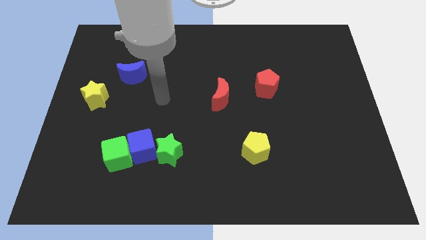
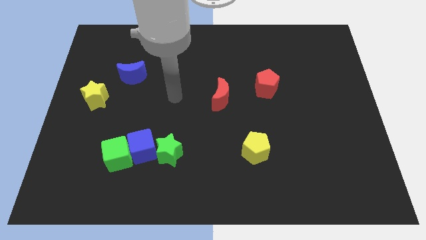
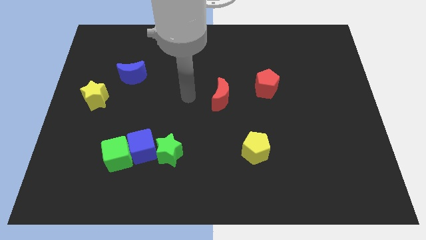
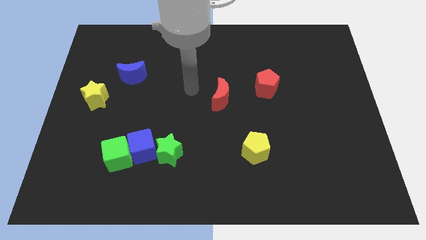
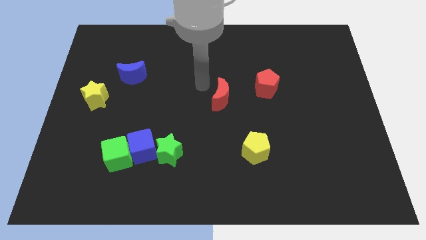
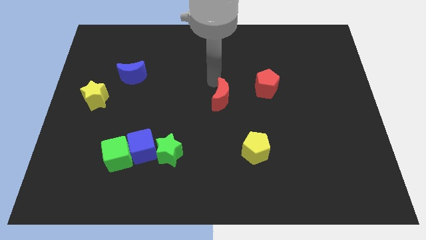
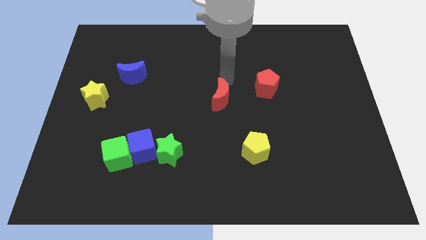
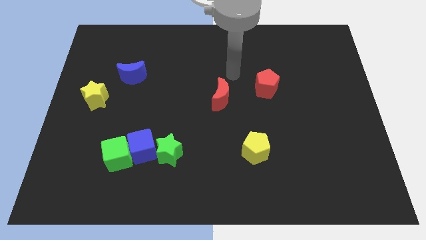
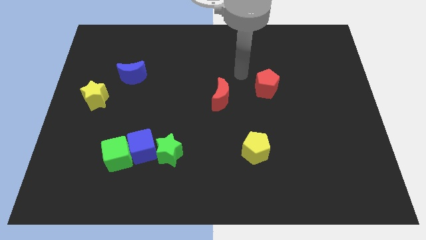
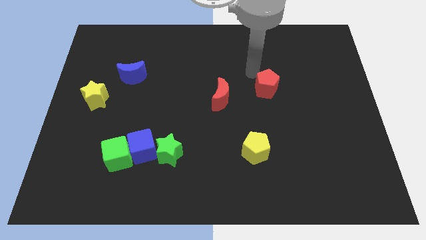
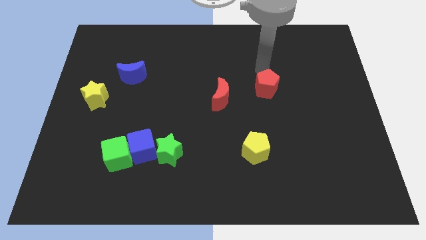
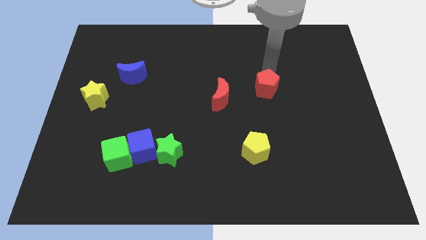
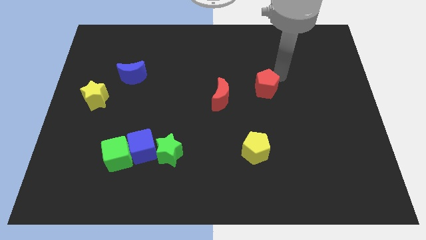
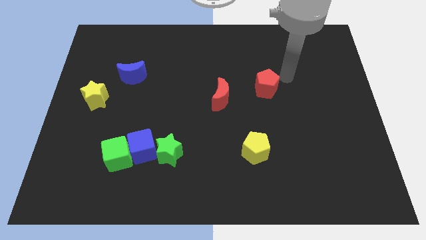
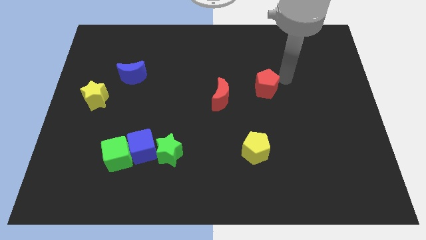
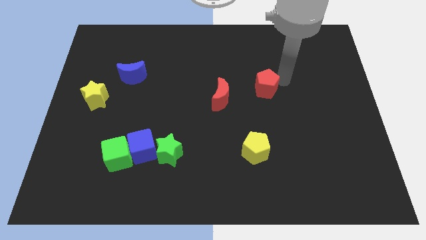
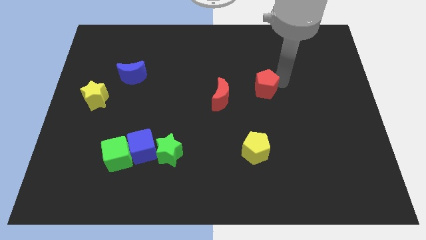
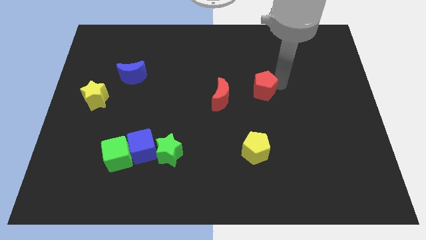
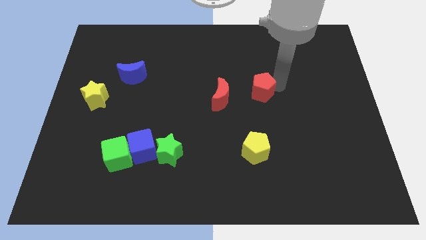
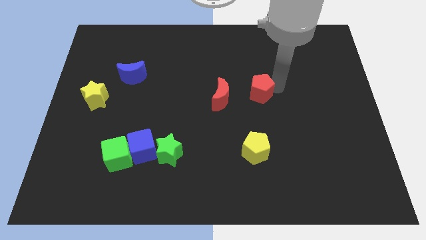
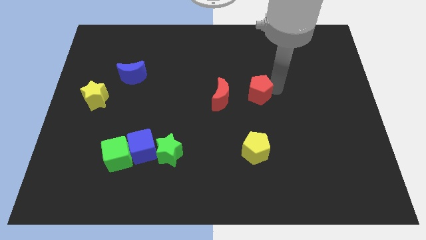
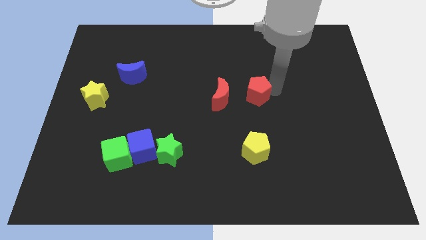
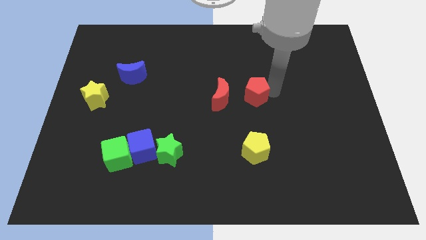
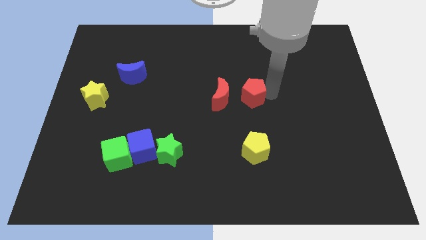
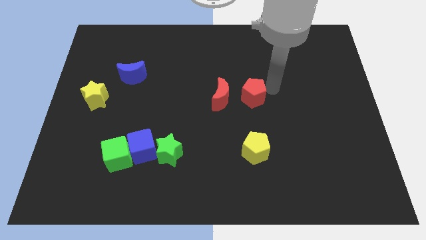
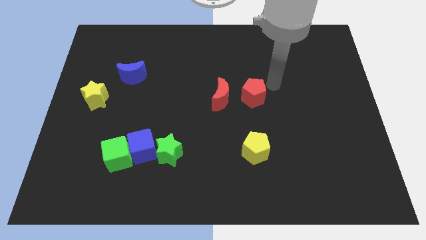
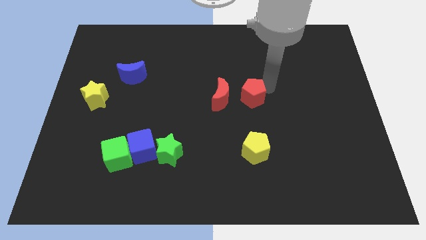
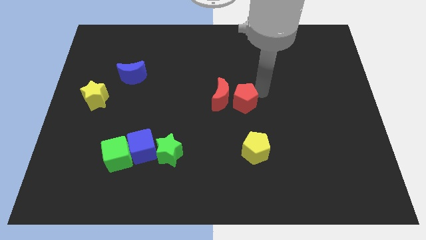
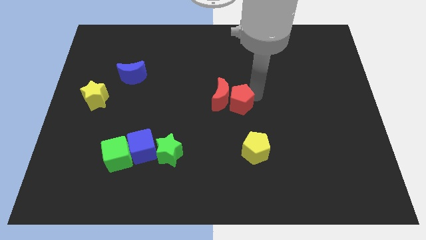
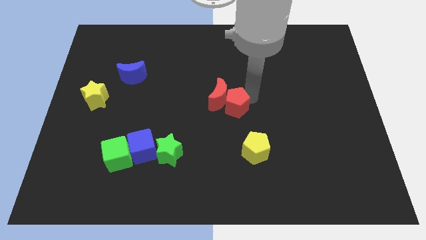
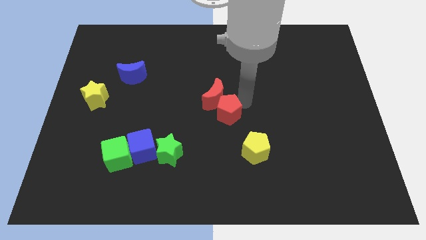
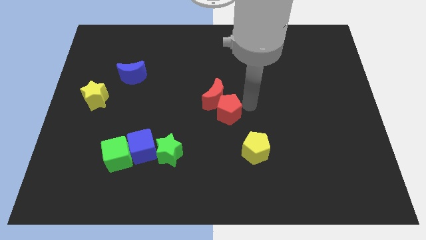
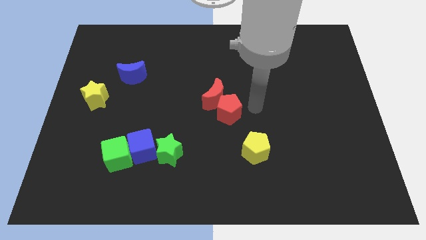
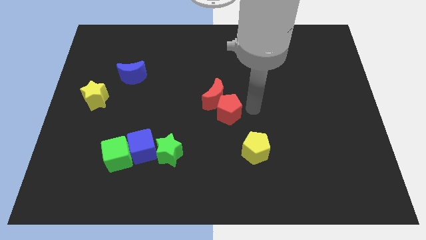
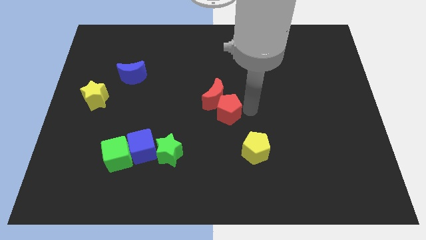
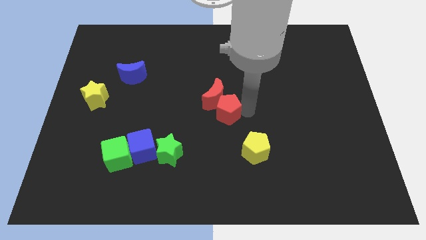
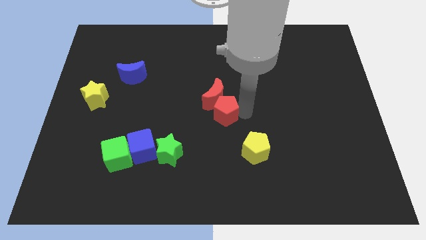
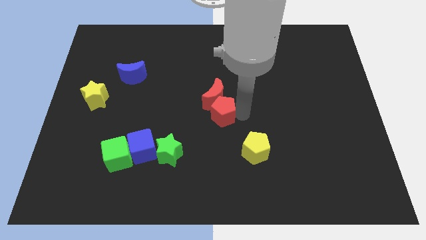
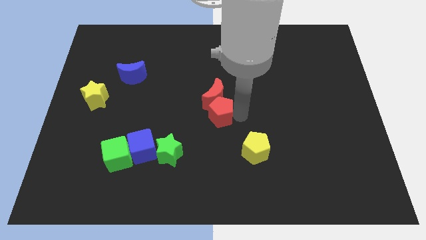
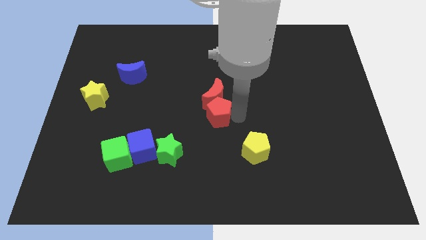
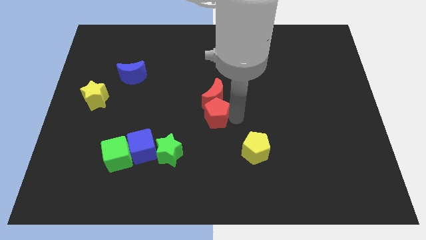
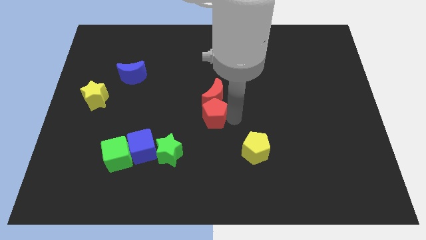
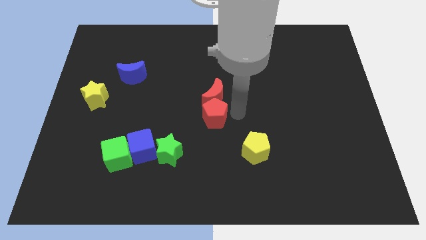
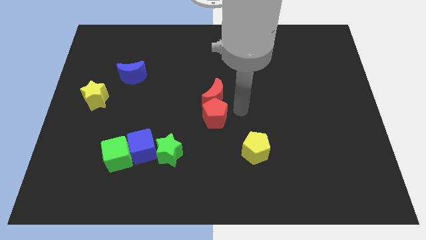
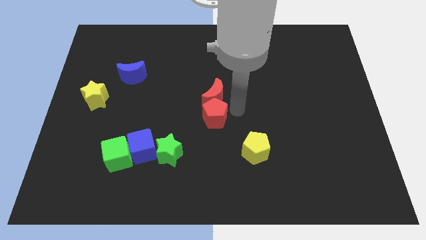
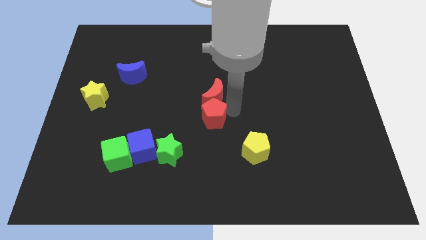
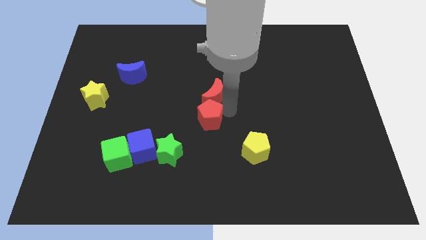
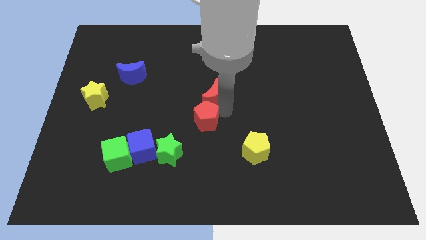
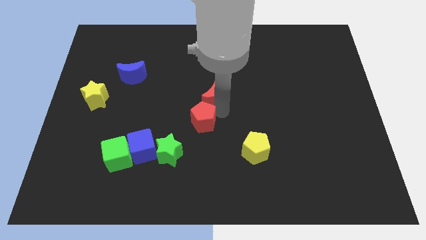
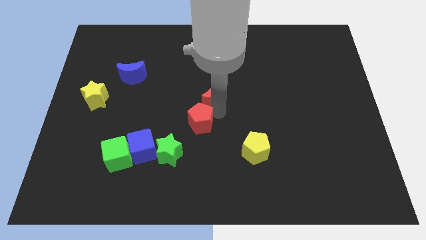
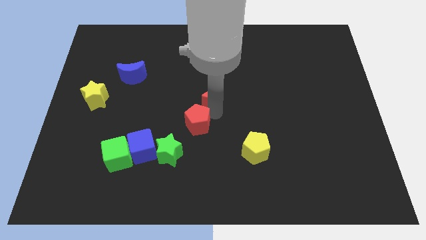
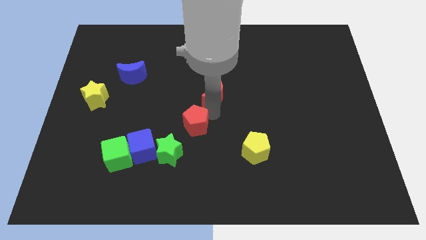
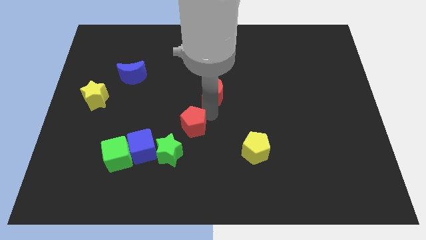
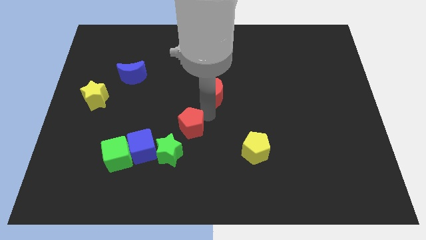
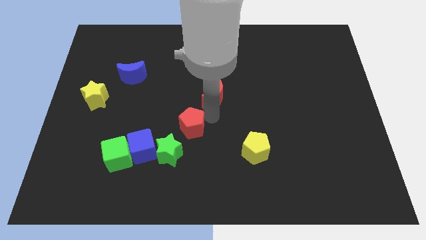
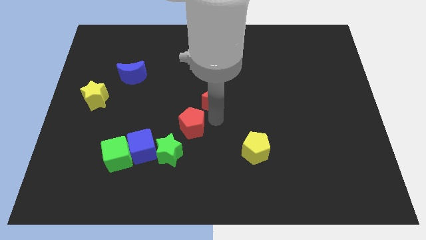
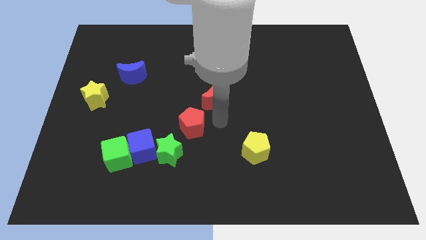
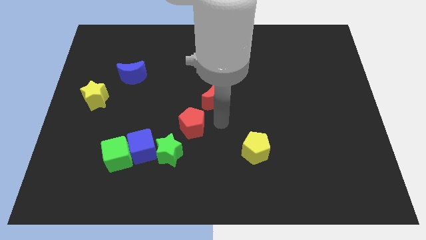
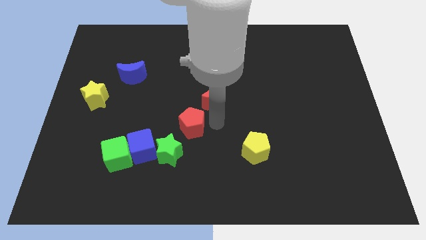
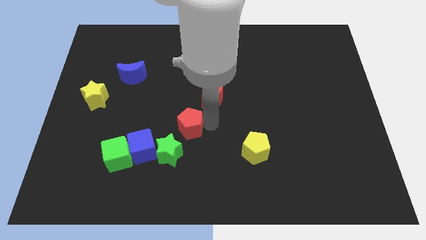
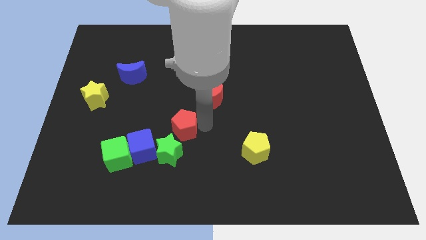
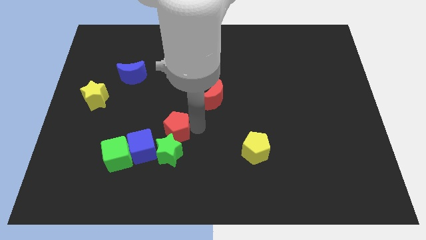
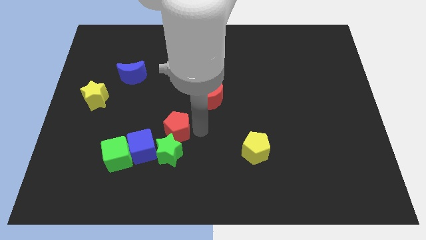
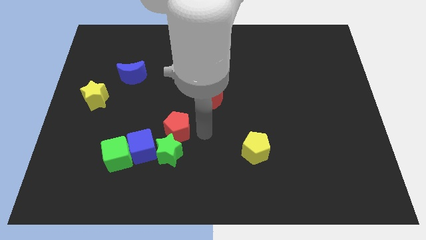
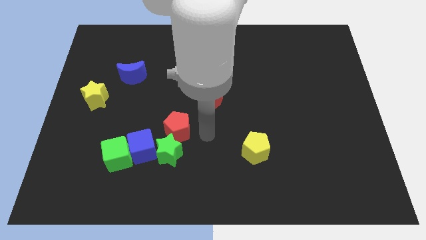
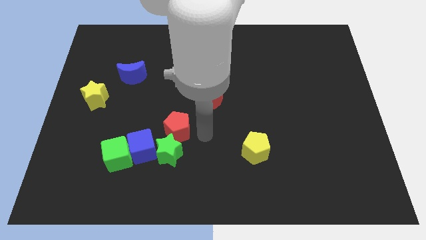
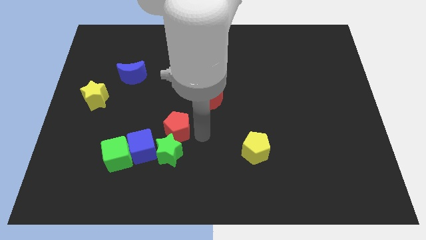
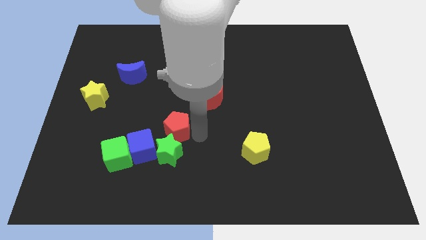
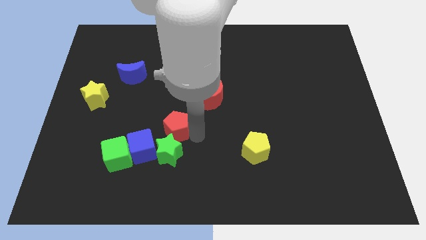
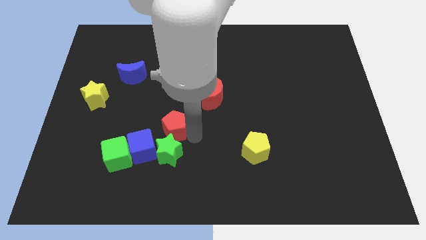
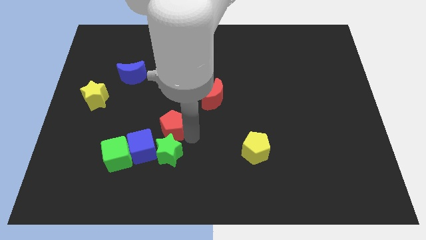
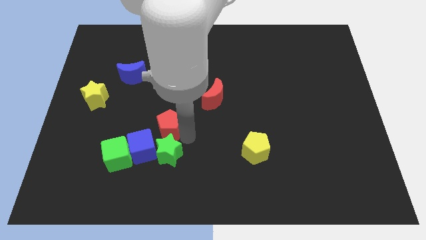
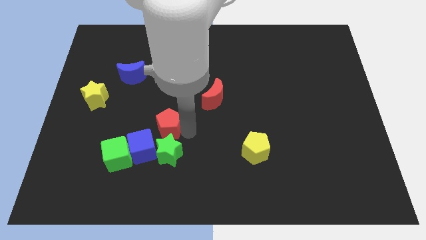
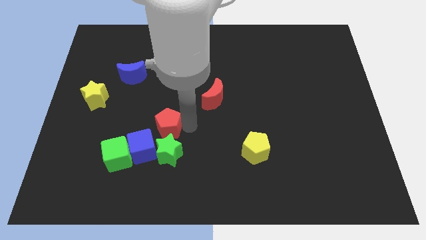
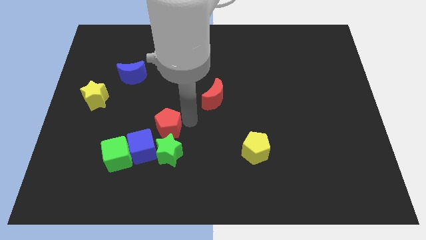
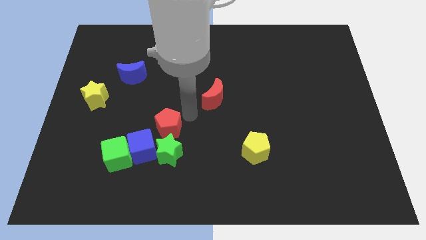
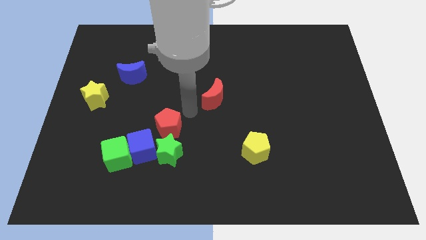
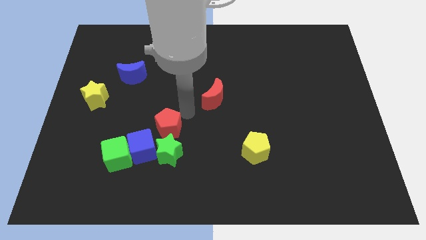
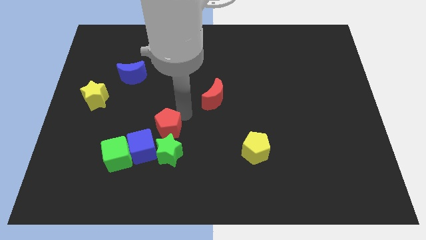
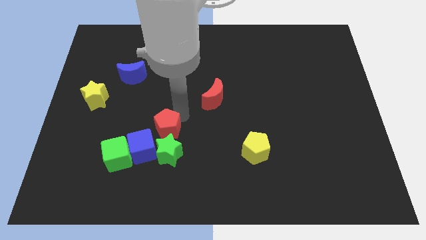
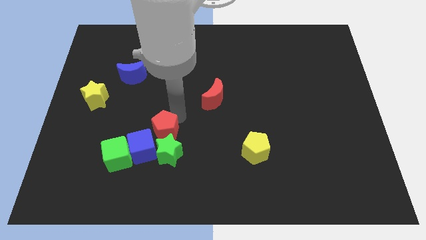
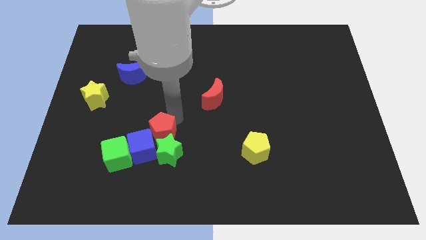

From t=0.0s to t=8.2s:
slide the red pentagon towards the blue cube
